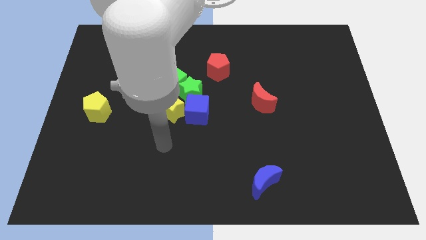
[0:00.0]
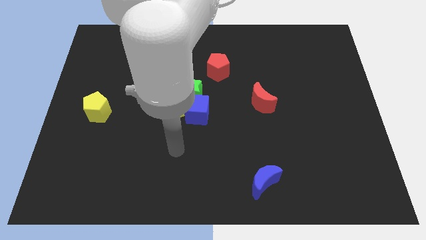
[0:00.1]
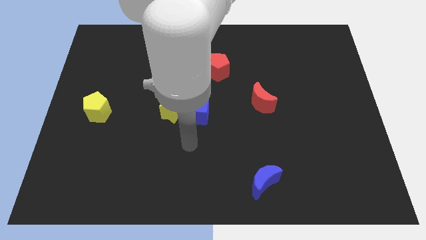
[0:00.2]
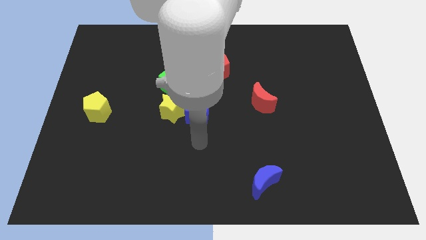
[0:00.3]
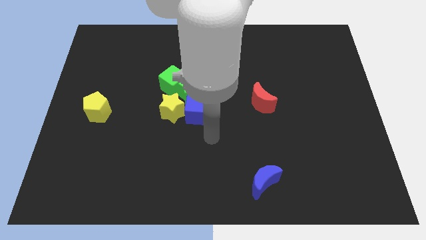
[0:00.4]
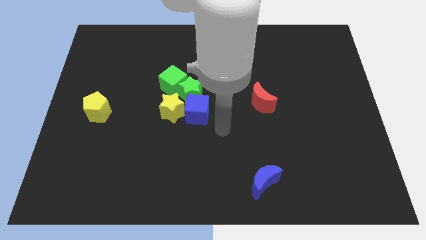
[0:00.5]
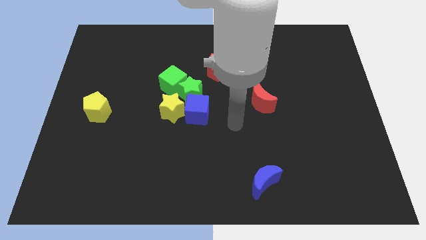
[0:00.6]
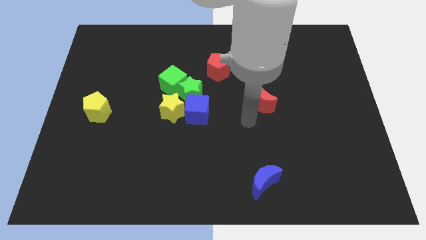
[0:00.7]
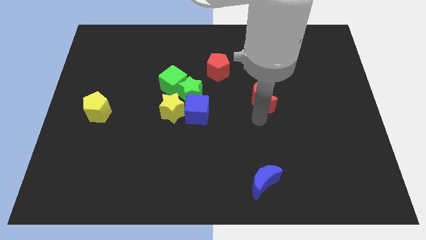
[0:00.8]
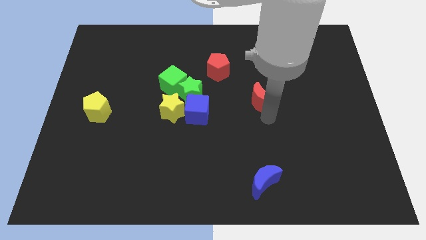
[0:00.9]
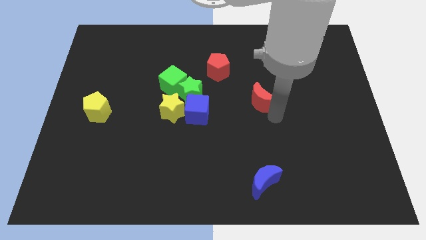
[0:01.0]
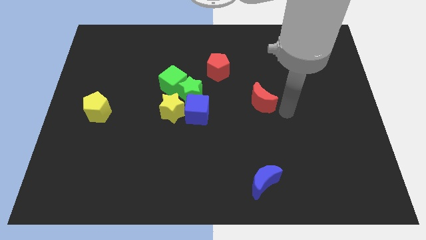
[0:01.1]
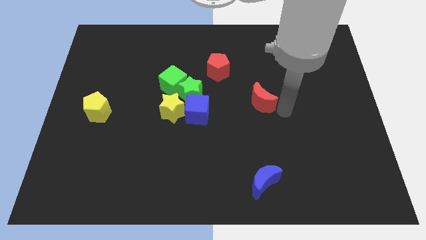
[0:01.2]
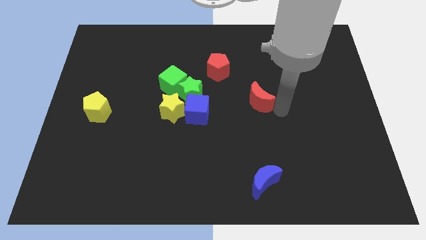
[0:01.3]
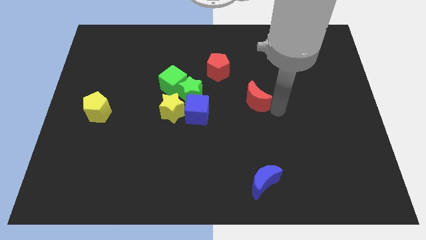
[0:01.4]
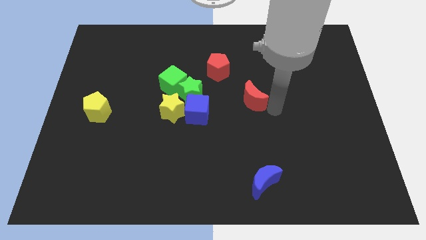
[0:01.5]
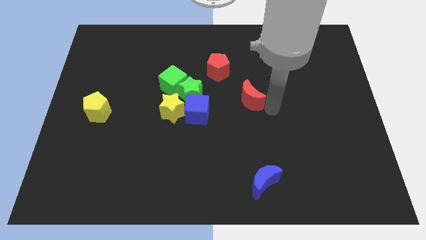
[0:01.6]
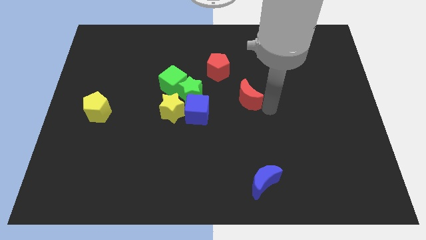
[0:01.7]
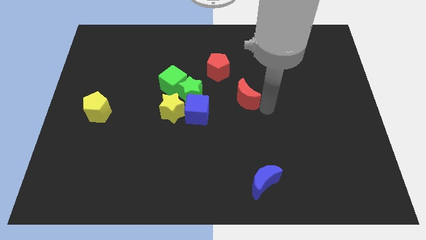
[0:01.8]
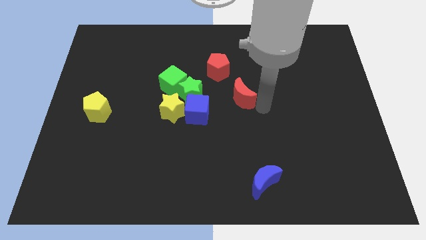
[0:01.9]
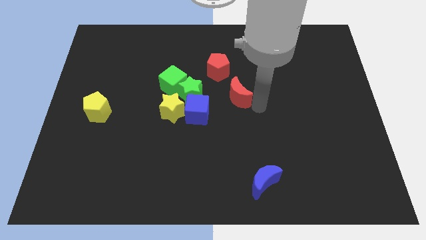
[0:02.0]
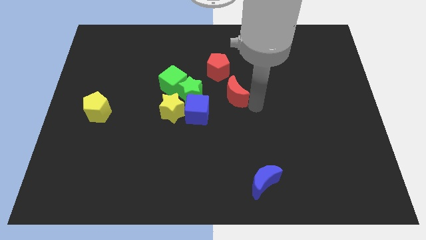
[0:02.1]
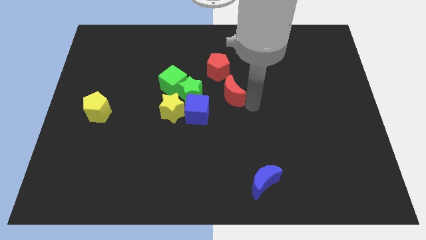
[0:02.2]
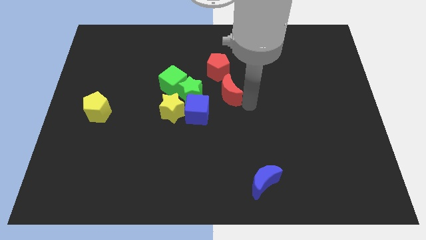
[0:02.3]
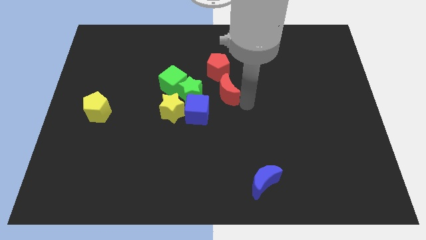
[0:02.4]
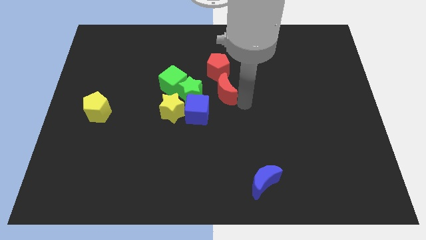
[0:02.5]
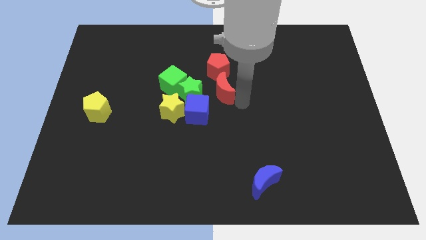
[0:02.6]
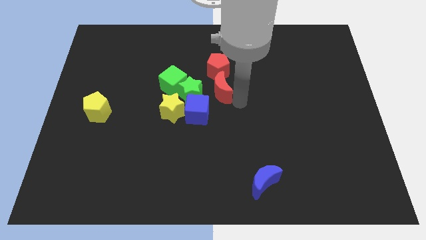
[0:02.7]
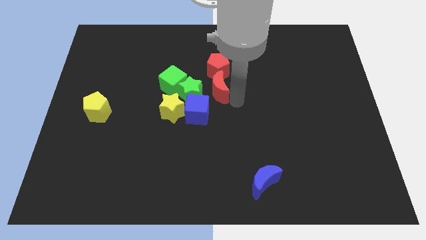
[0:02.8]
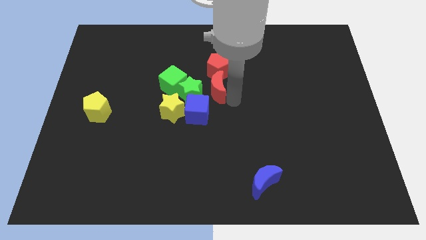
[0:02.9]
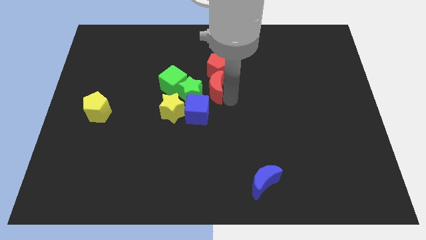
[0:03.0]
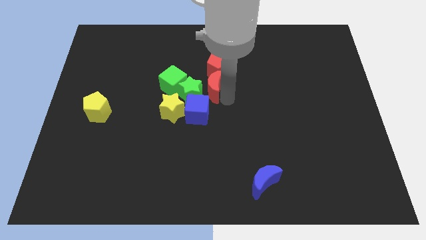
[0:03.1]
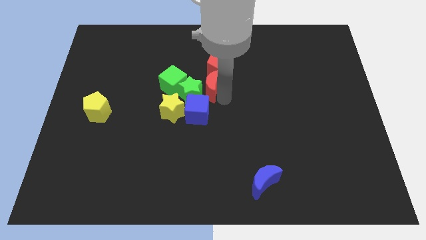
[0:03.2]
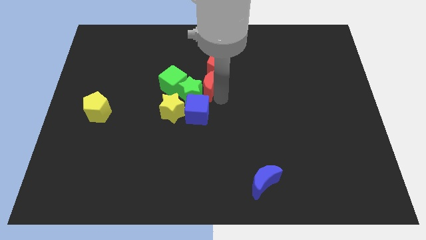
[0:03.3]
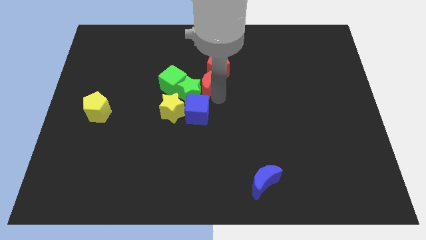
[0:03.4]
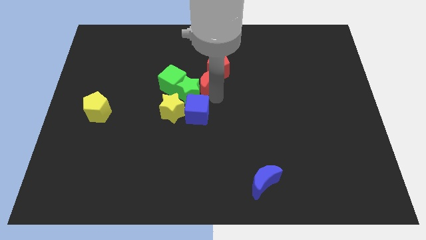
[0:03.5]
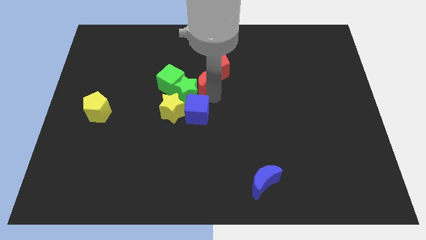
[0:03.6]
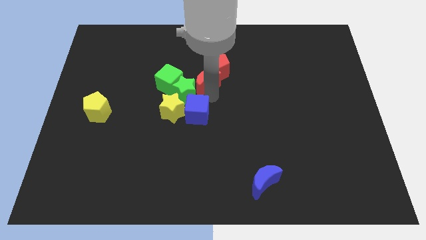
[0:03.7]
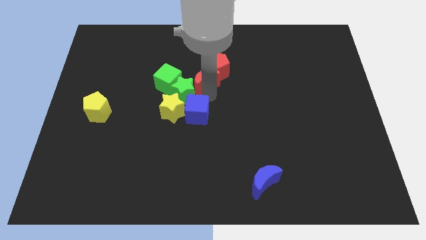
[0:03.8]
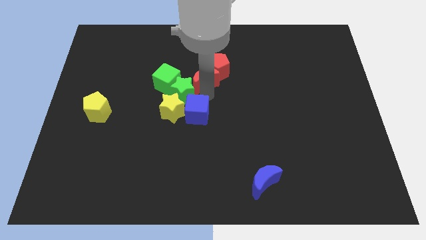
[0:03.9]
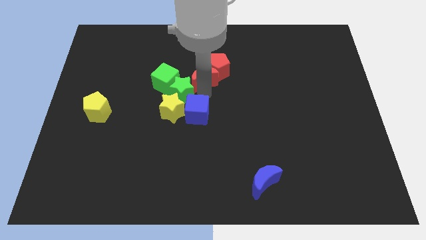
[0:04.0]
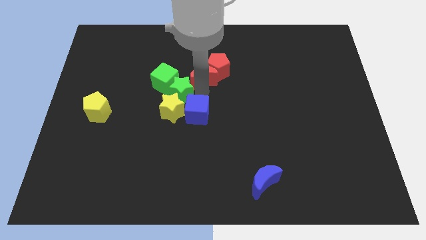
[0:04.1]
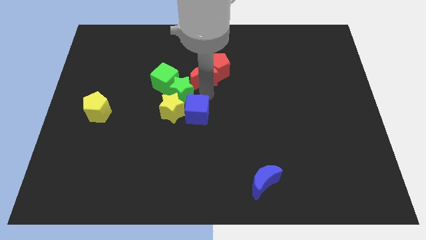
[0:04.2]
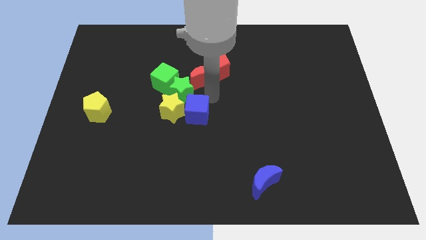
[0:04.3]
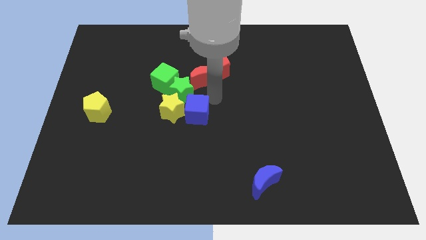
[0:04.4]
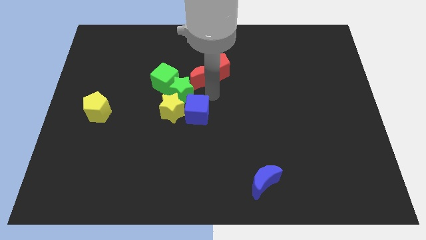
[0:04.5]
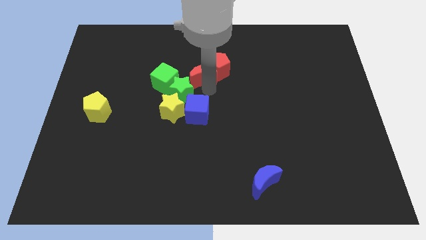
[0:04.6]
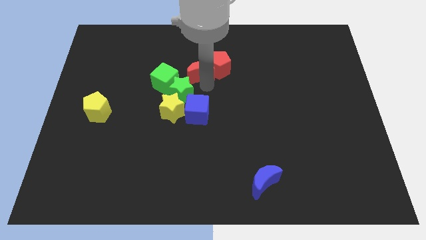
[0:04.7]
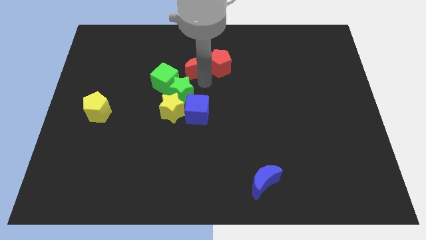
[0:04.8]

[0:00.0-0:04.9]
put the red moon diagonally up and to the left of the red pentagon

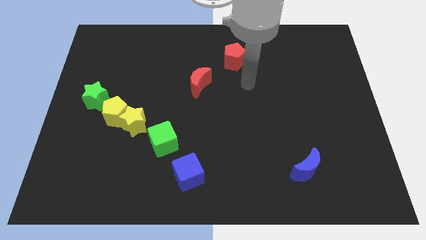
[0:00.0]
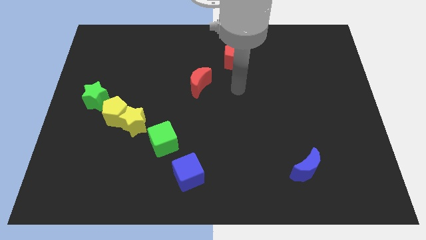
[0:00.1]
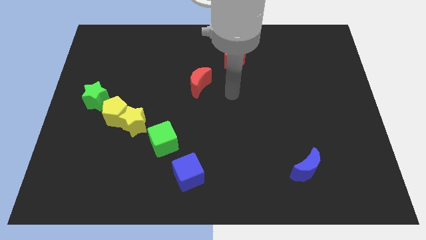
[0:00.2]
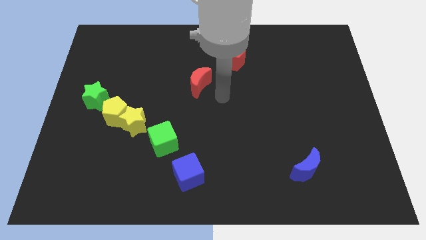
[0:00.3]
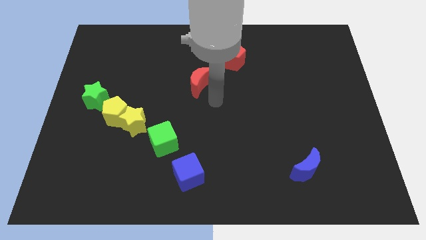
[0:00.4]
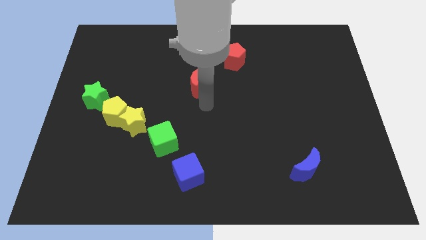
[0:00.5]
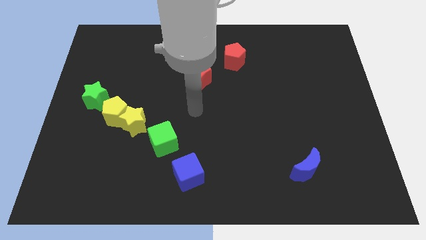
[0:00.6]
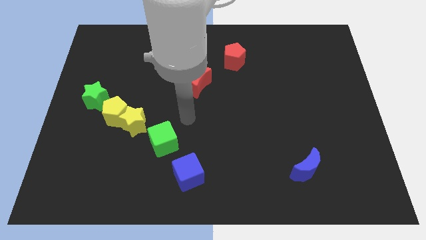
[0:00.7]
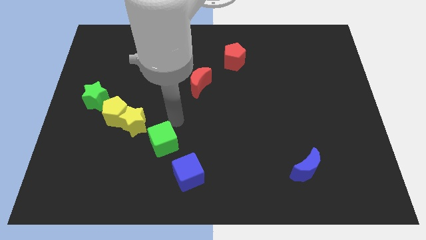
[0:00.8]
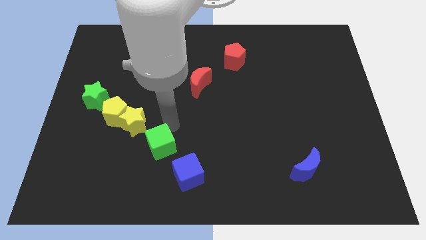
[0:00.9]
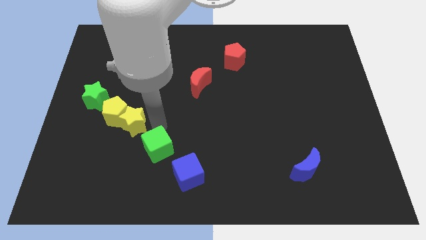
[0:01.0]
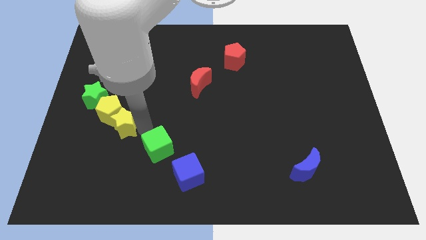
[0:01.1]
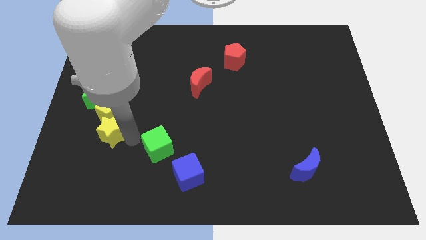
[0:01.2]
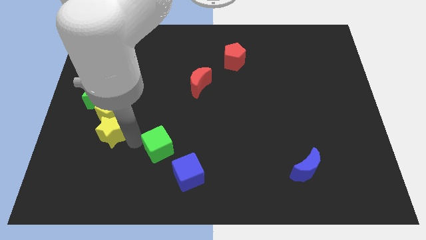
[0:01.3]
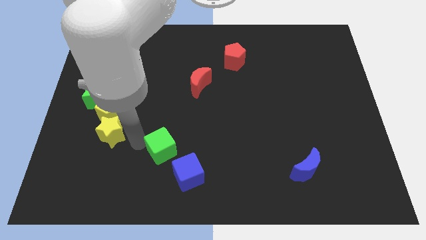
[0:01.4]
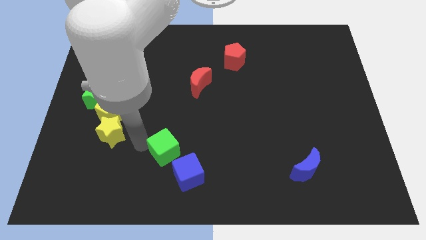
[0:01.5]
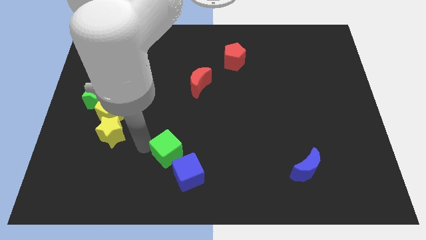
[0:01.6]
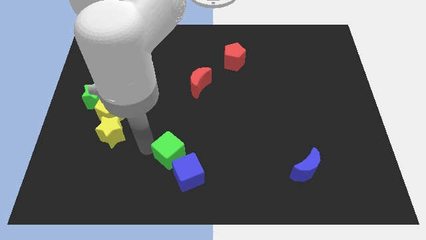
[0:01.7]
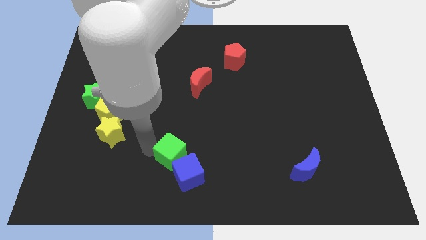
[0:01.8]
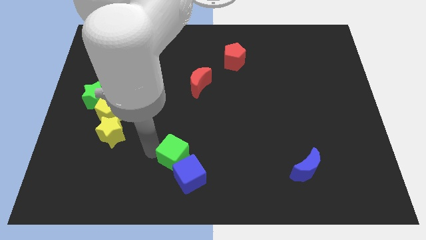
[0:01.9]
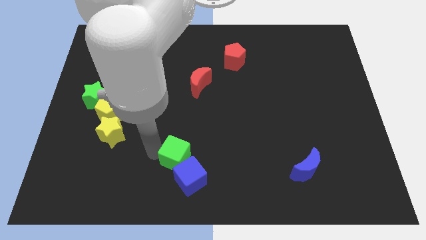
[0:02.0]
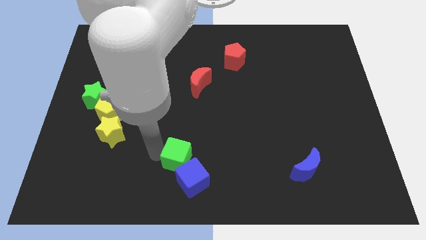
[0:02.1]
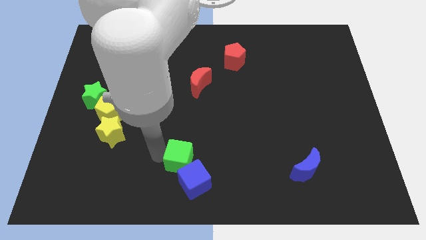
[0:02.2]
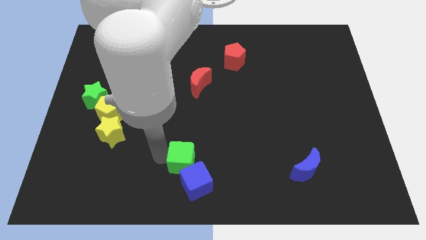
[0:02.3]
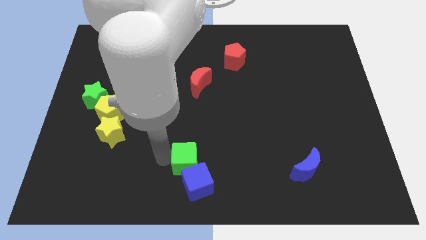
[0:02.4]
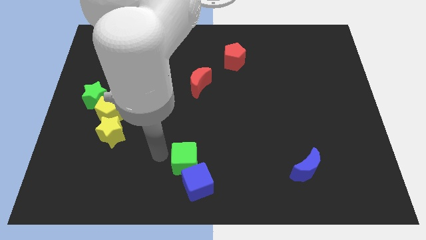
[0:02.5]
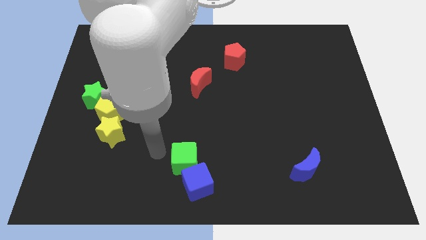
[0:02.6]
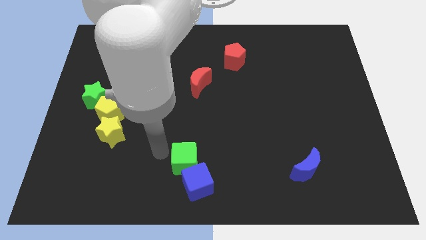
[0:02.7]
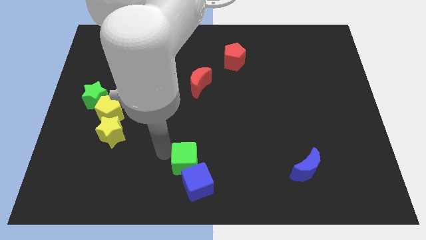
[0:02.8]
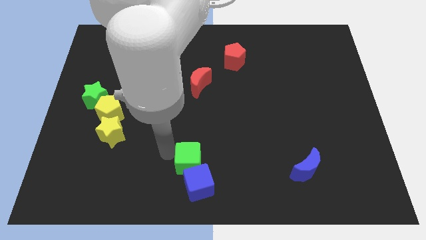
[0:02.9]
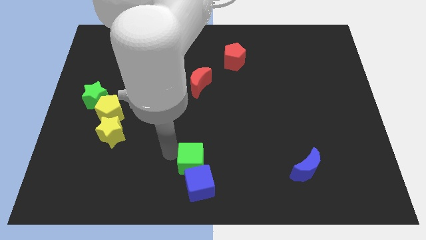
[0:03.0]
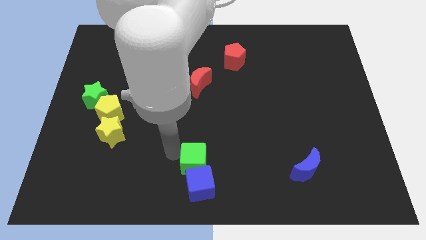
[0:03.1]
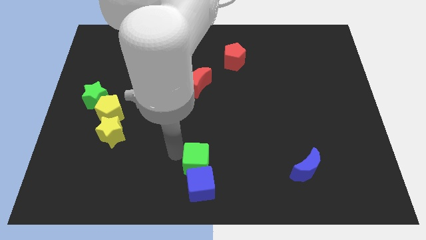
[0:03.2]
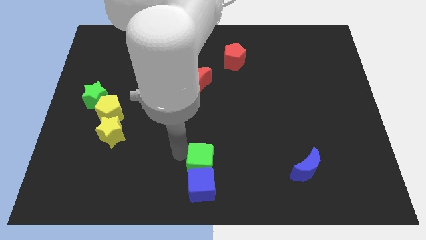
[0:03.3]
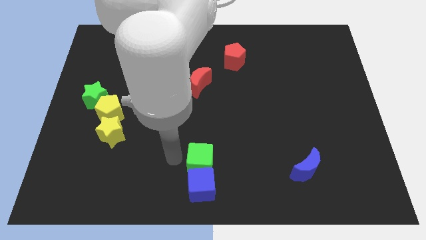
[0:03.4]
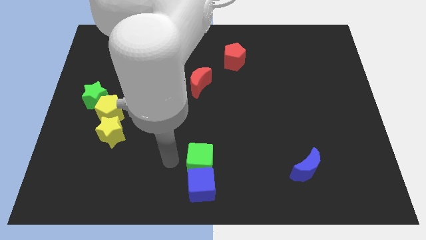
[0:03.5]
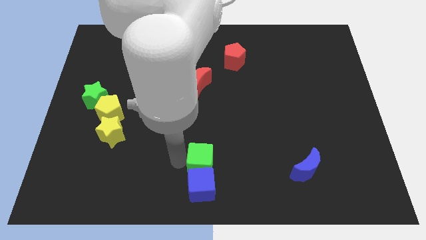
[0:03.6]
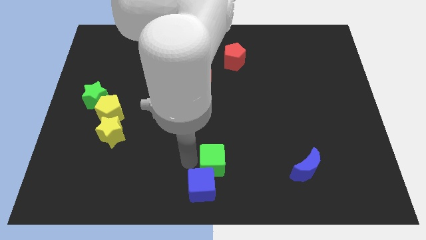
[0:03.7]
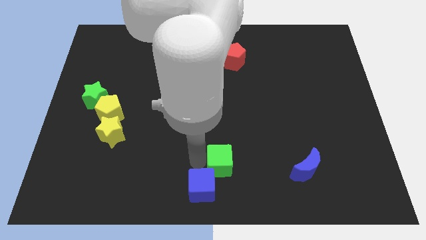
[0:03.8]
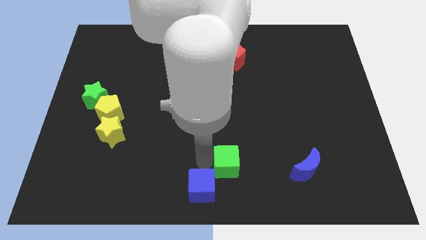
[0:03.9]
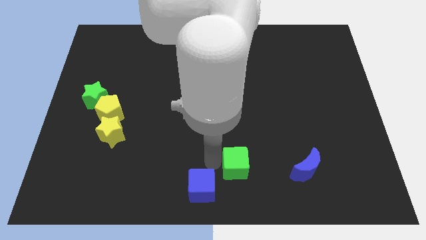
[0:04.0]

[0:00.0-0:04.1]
push the green cube to the left side of the blue moon
